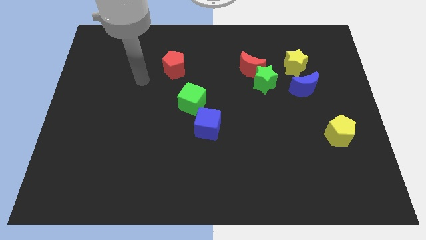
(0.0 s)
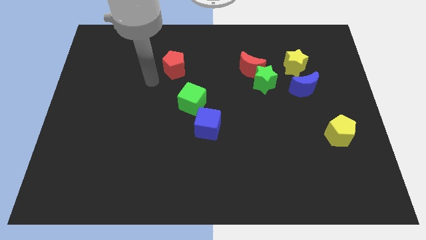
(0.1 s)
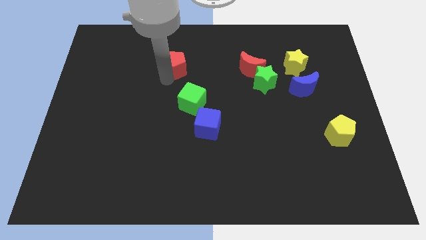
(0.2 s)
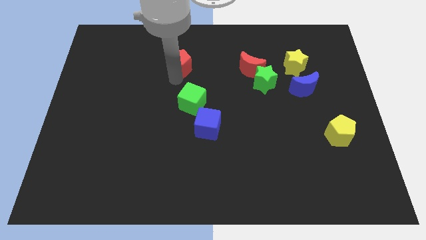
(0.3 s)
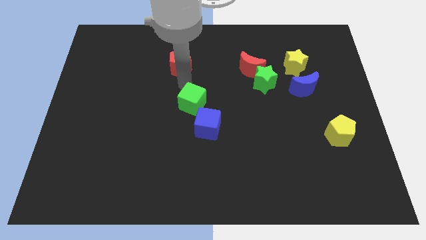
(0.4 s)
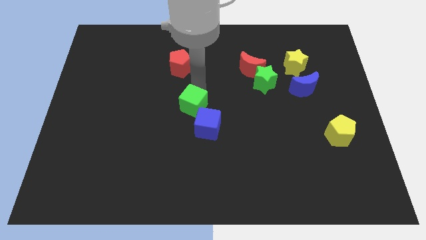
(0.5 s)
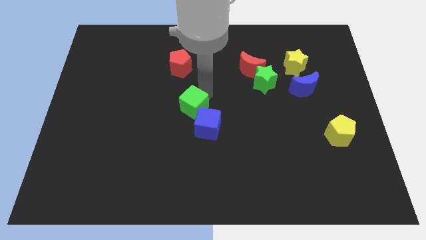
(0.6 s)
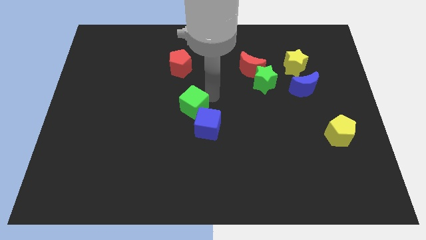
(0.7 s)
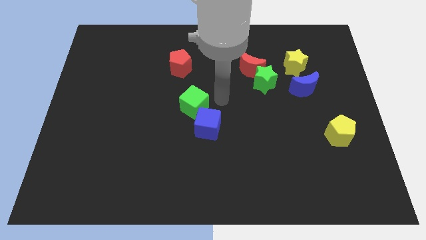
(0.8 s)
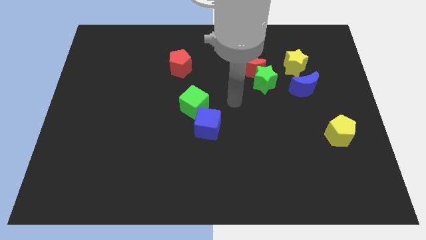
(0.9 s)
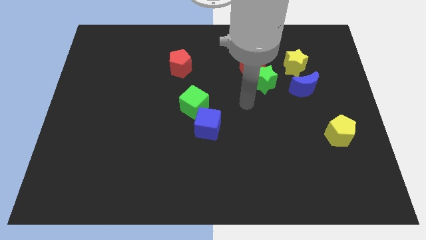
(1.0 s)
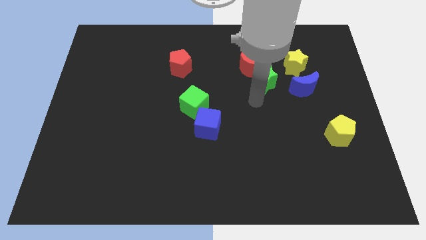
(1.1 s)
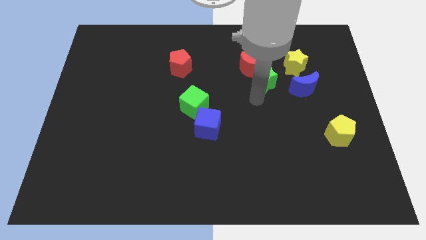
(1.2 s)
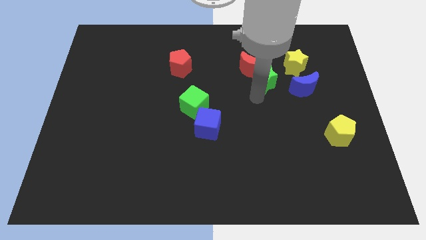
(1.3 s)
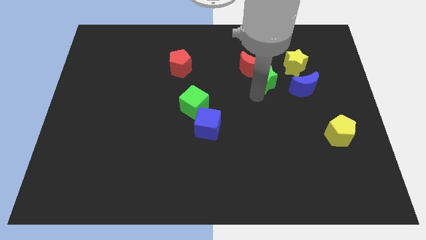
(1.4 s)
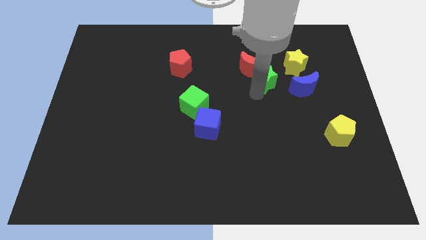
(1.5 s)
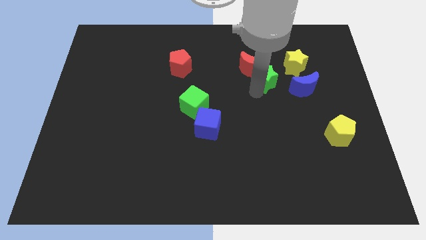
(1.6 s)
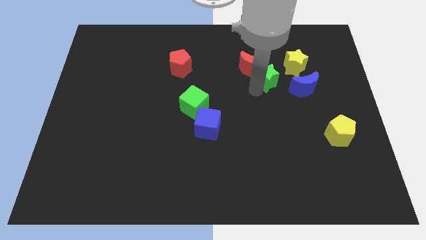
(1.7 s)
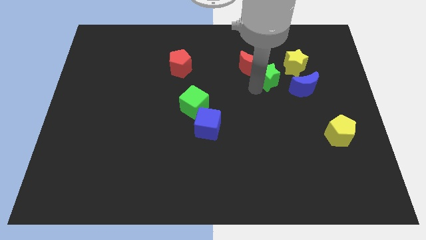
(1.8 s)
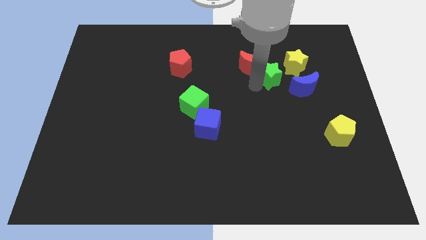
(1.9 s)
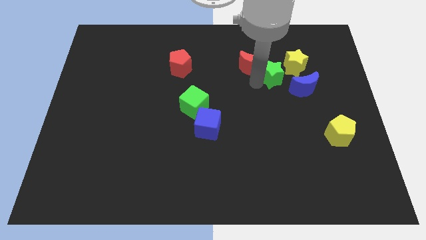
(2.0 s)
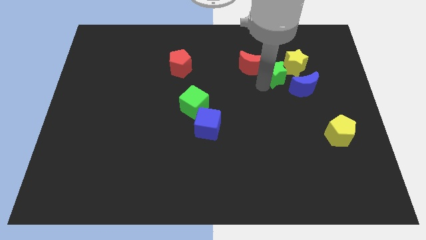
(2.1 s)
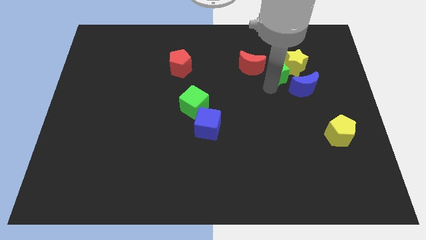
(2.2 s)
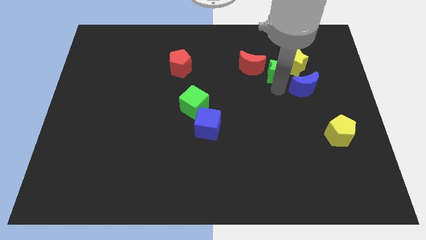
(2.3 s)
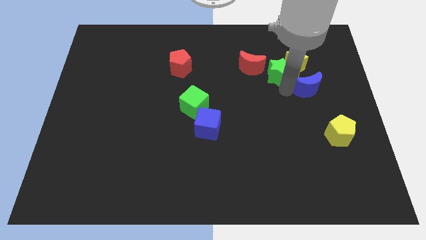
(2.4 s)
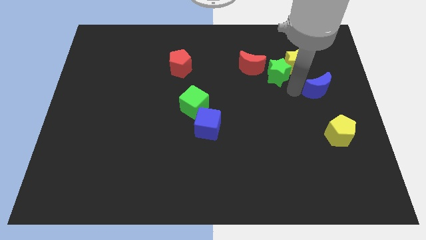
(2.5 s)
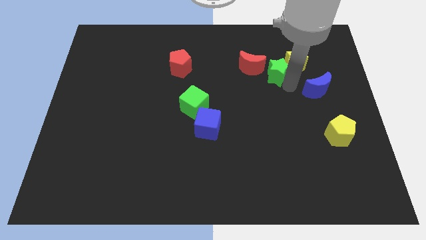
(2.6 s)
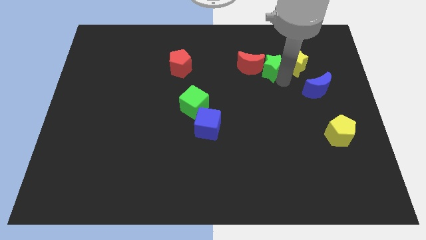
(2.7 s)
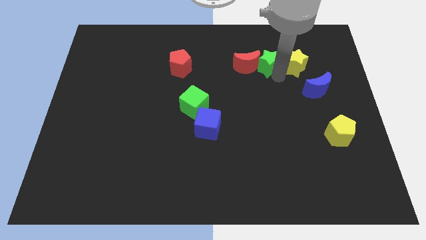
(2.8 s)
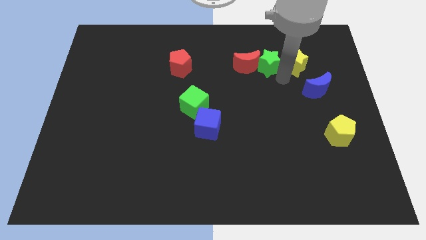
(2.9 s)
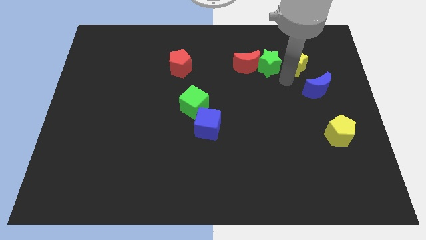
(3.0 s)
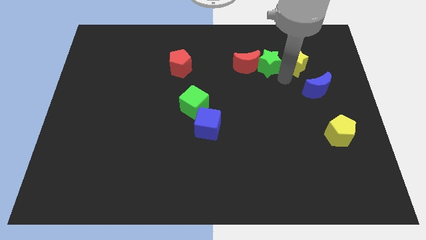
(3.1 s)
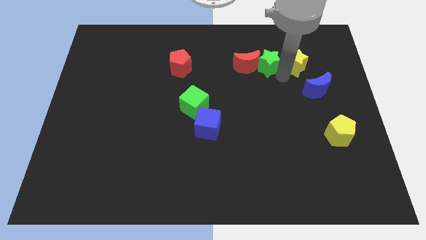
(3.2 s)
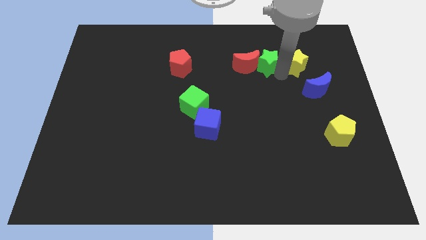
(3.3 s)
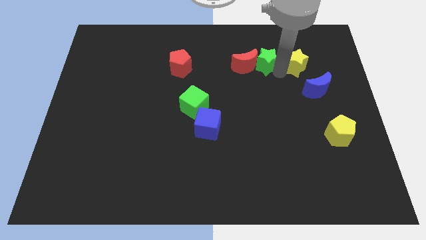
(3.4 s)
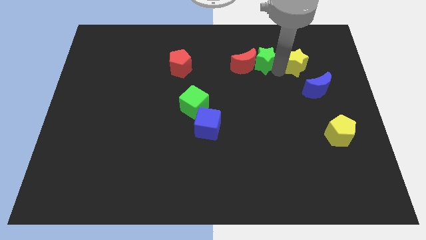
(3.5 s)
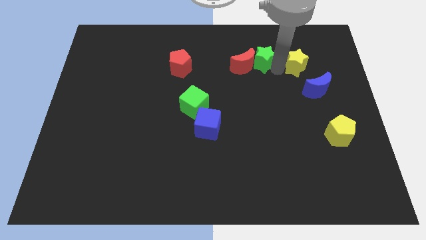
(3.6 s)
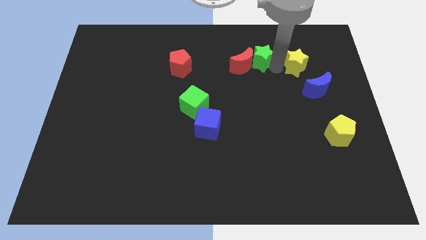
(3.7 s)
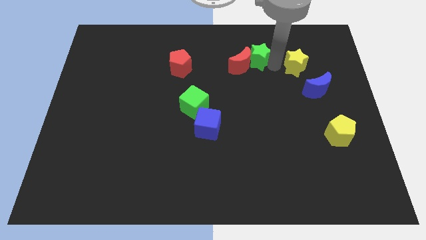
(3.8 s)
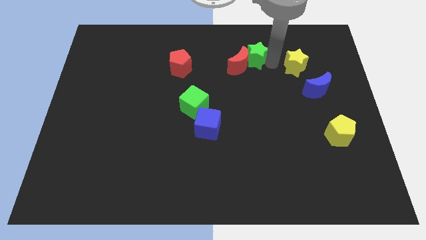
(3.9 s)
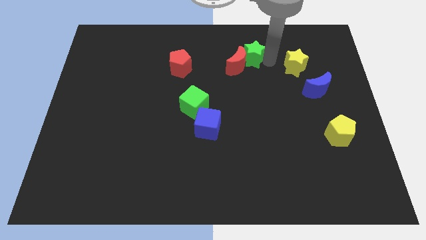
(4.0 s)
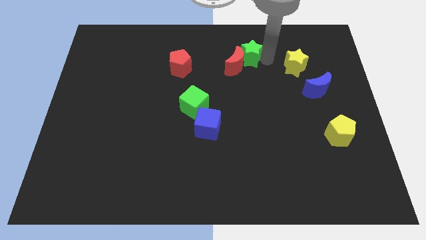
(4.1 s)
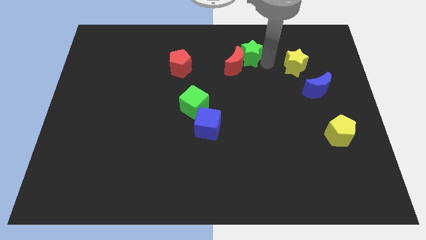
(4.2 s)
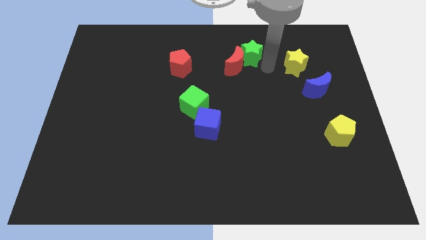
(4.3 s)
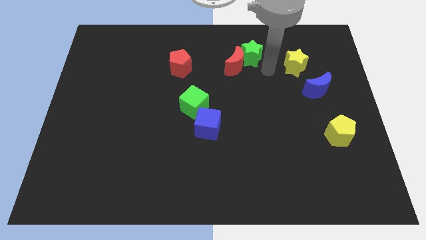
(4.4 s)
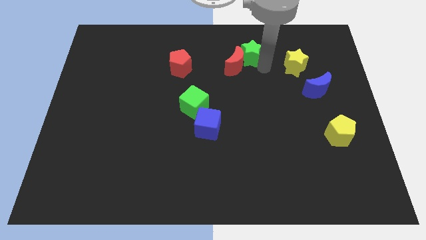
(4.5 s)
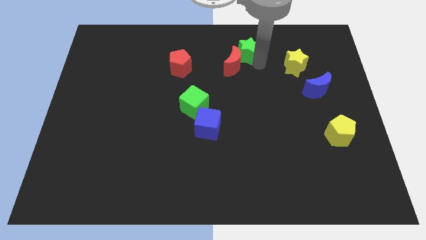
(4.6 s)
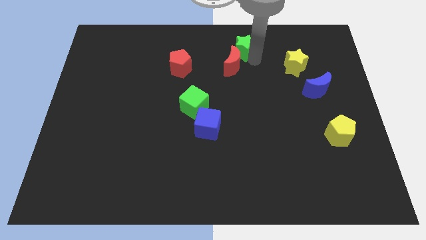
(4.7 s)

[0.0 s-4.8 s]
put the green star to the towards your base

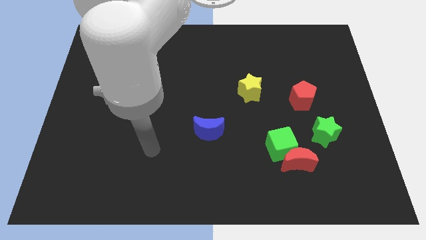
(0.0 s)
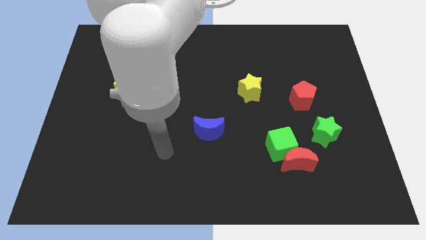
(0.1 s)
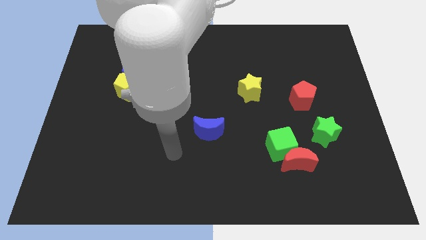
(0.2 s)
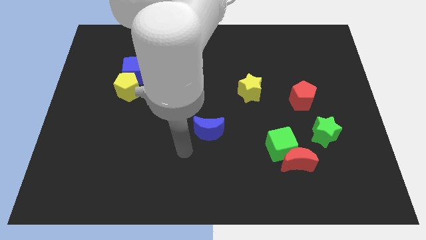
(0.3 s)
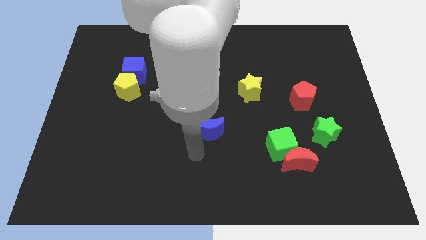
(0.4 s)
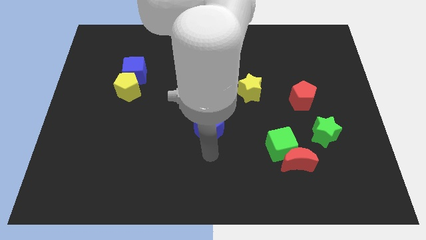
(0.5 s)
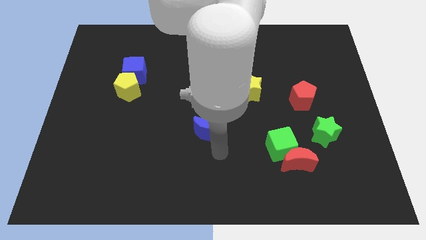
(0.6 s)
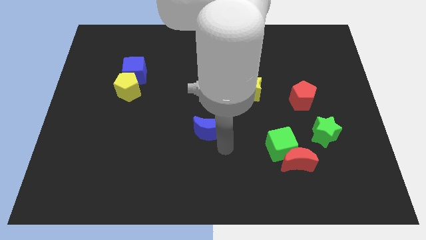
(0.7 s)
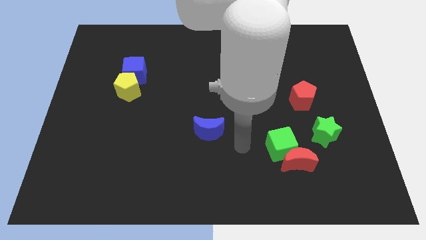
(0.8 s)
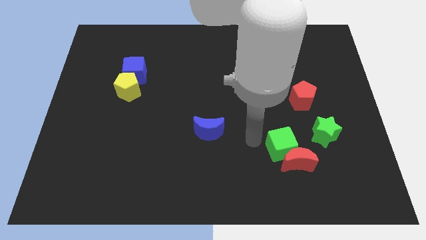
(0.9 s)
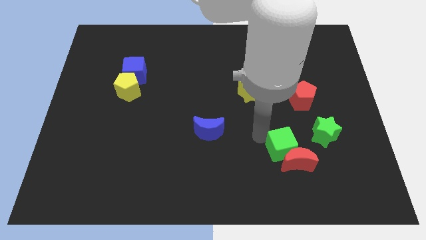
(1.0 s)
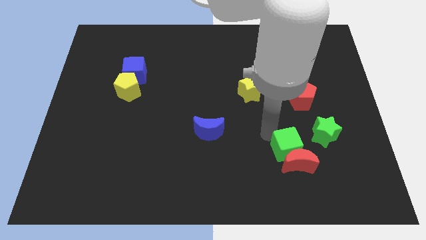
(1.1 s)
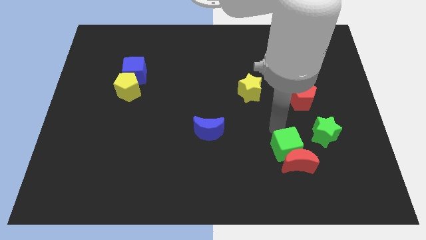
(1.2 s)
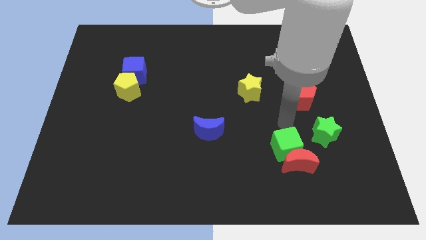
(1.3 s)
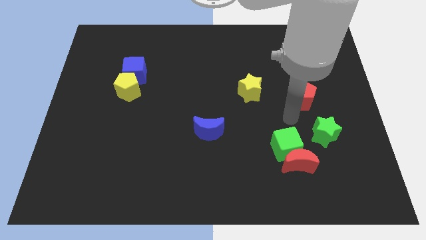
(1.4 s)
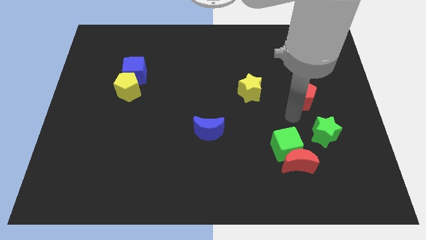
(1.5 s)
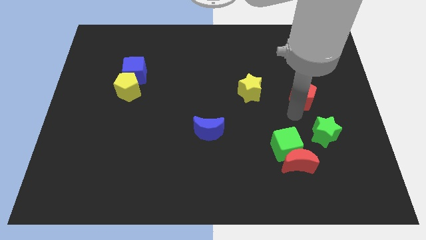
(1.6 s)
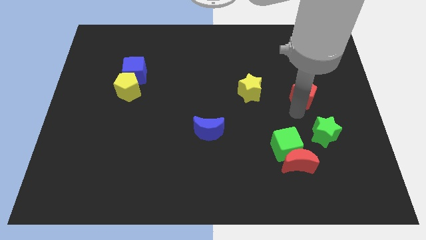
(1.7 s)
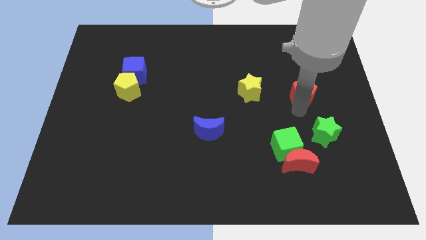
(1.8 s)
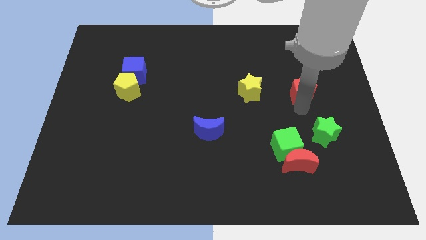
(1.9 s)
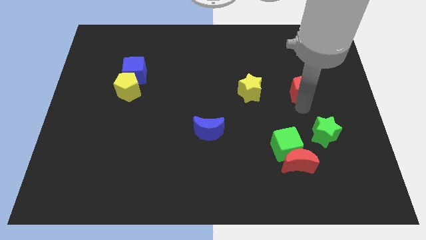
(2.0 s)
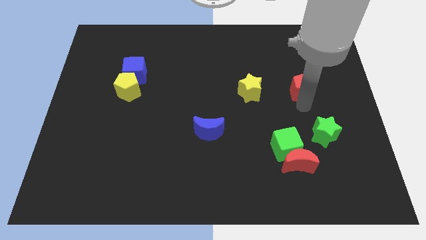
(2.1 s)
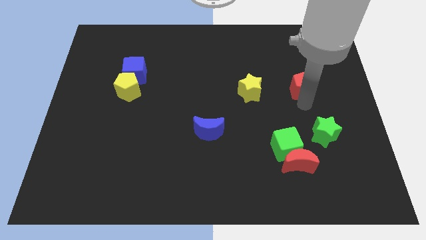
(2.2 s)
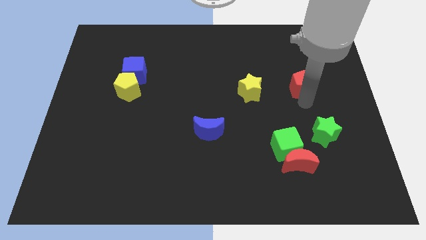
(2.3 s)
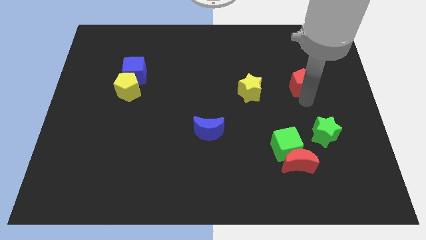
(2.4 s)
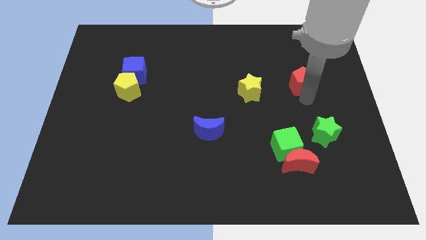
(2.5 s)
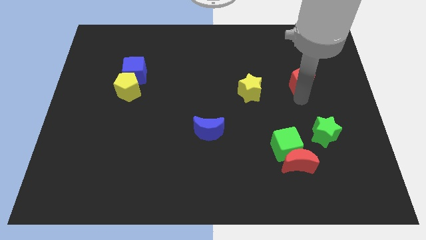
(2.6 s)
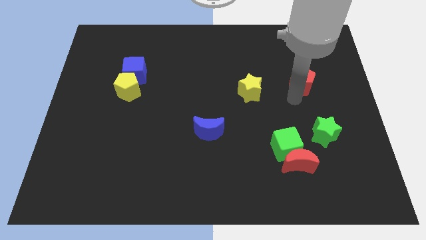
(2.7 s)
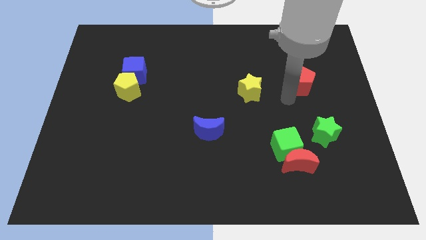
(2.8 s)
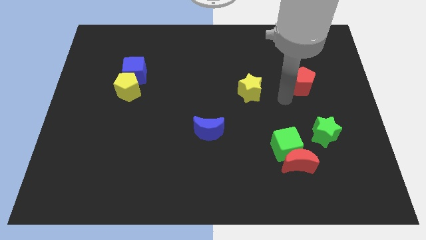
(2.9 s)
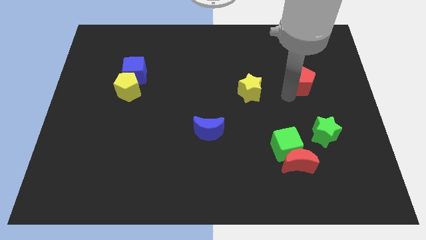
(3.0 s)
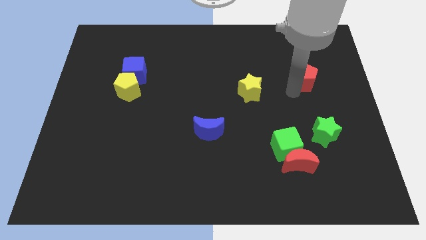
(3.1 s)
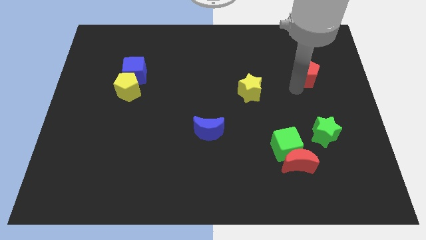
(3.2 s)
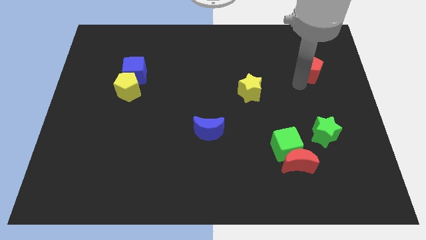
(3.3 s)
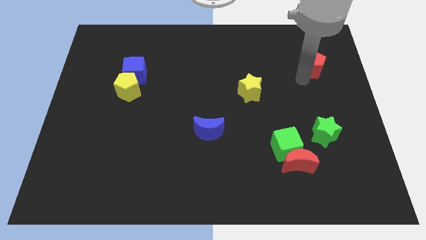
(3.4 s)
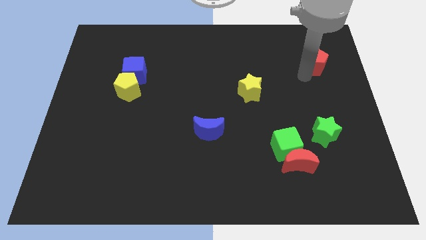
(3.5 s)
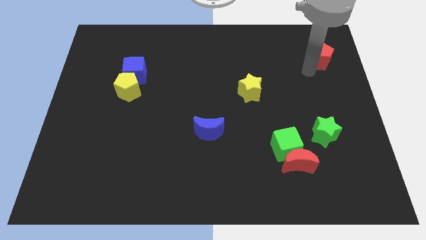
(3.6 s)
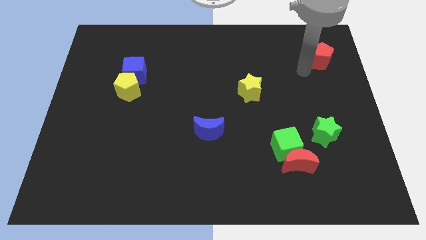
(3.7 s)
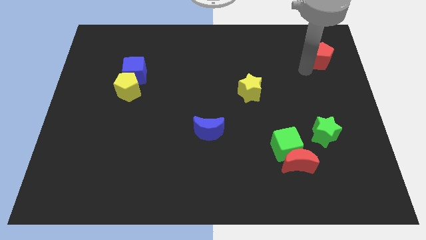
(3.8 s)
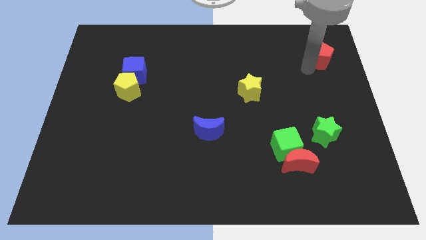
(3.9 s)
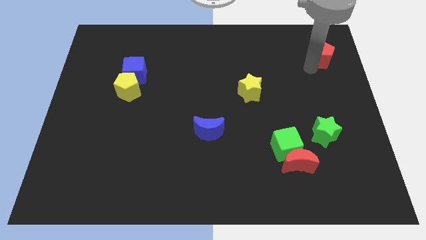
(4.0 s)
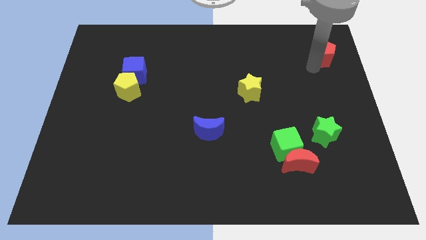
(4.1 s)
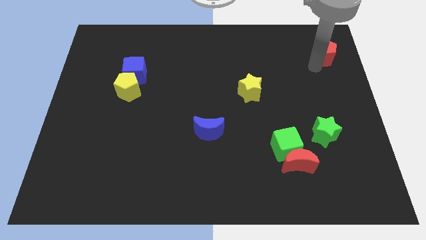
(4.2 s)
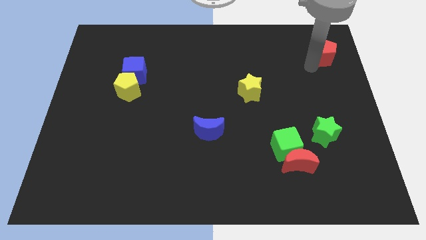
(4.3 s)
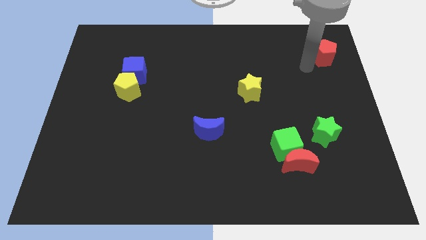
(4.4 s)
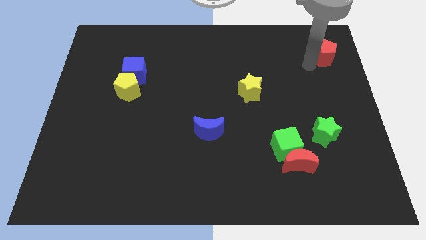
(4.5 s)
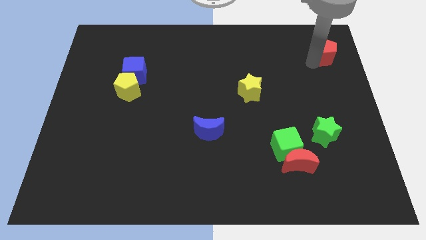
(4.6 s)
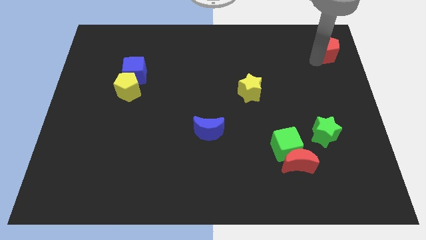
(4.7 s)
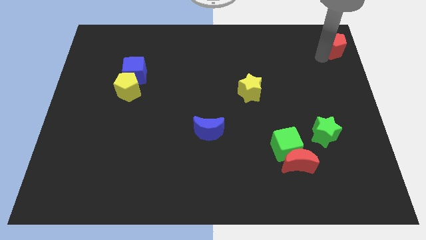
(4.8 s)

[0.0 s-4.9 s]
push the red pentagon to the top right corner
